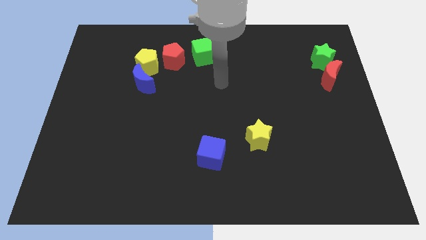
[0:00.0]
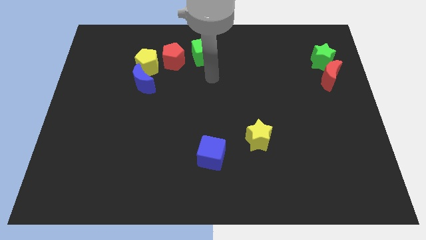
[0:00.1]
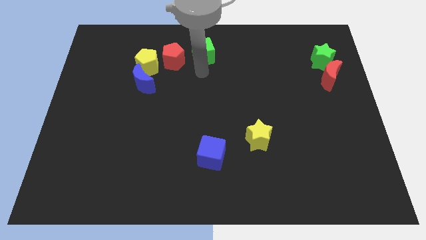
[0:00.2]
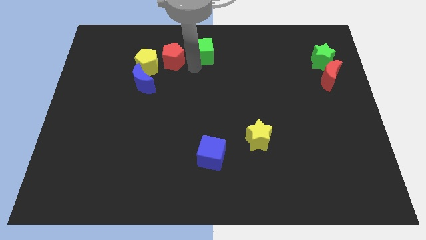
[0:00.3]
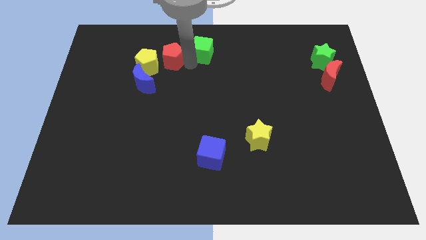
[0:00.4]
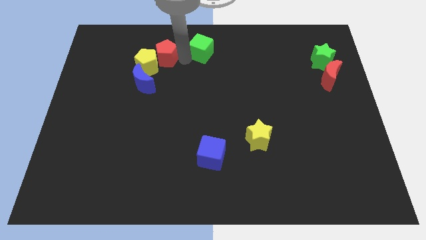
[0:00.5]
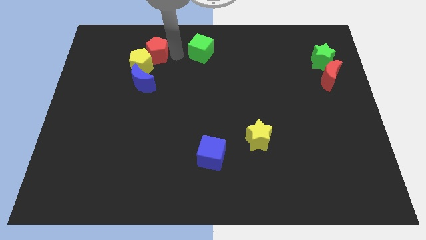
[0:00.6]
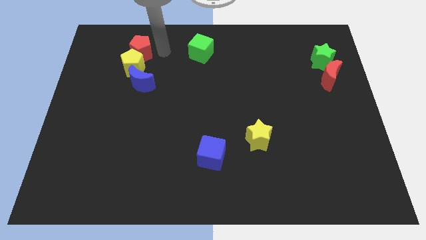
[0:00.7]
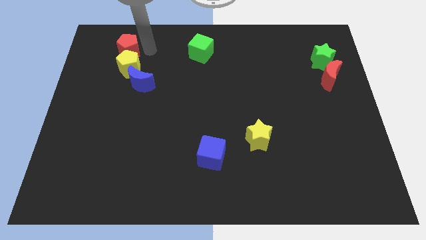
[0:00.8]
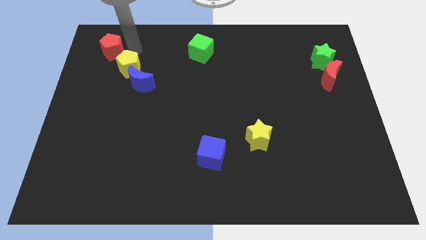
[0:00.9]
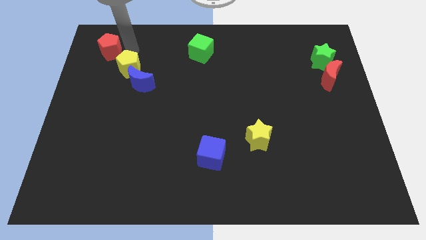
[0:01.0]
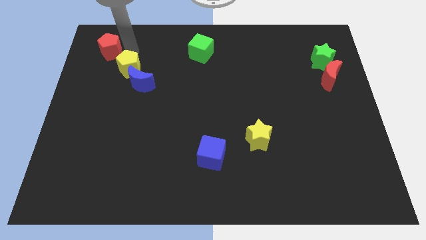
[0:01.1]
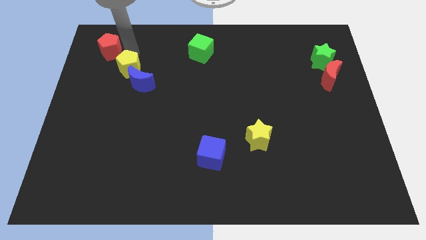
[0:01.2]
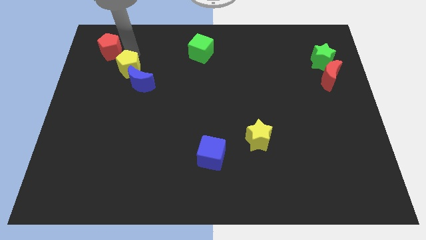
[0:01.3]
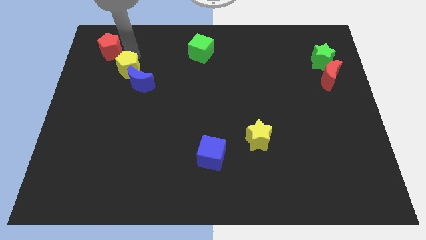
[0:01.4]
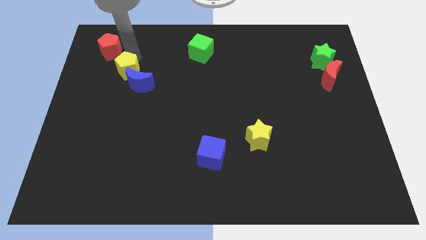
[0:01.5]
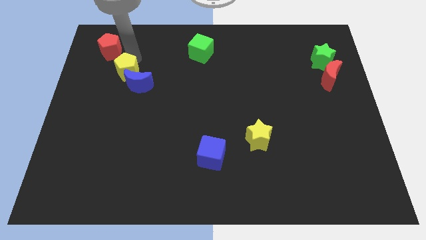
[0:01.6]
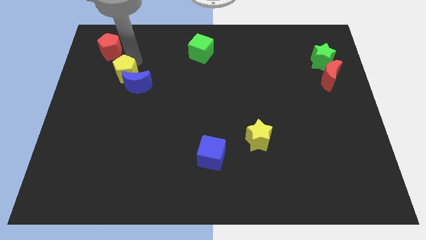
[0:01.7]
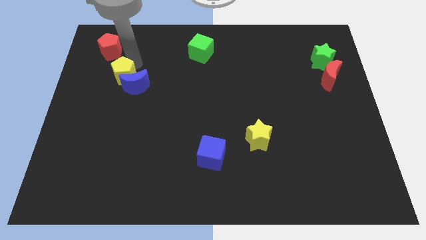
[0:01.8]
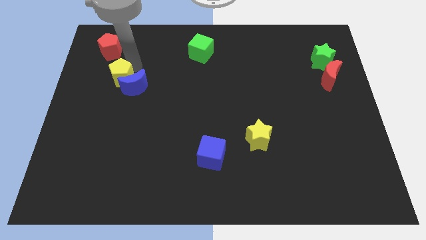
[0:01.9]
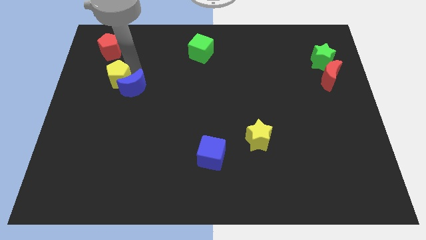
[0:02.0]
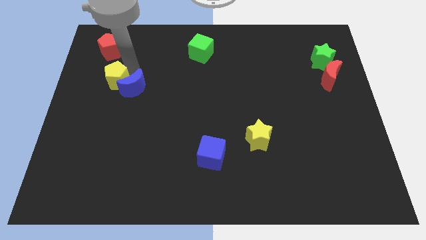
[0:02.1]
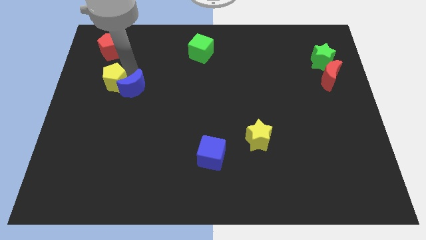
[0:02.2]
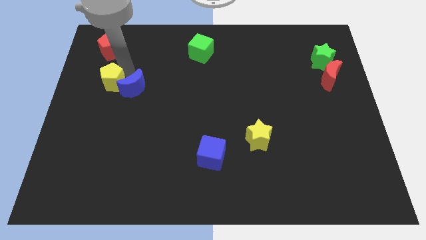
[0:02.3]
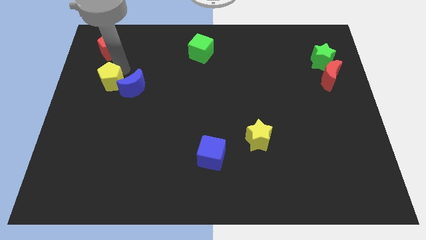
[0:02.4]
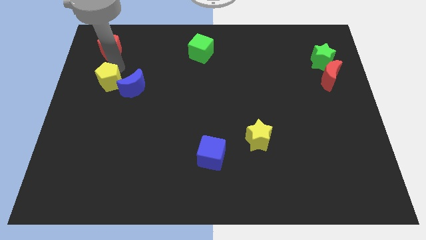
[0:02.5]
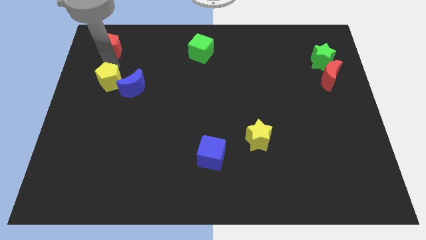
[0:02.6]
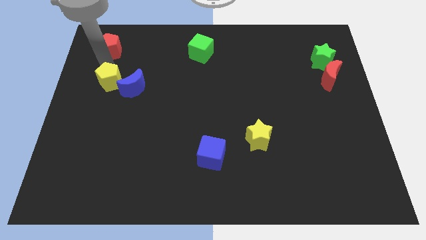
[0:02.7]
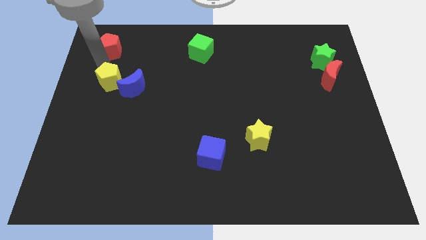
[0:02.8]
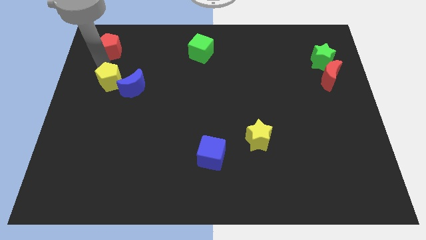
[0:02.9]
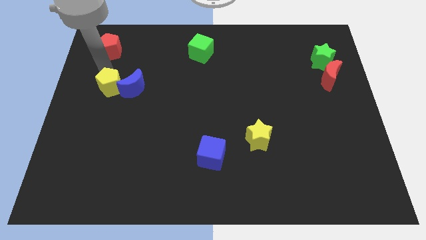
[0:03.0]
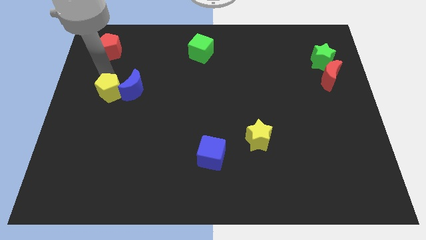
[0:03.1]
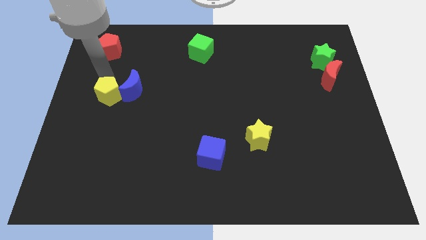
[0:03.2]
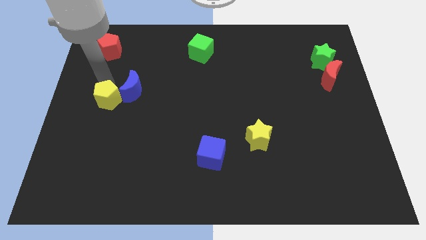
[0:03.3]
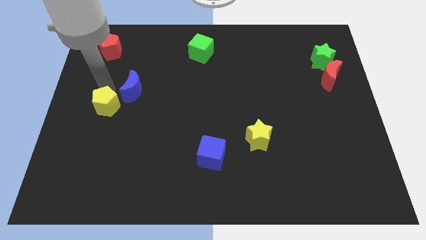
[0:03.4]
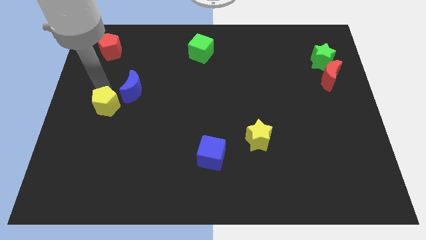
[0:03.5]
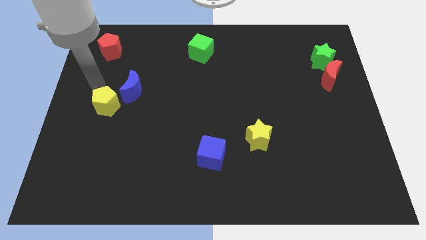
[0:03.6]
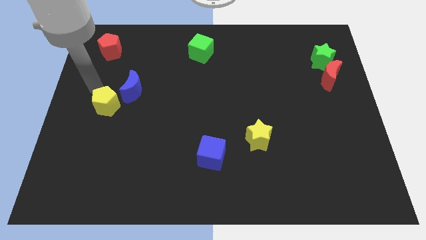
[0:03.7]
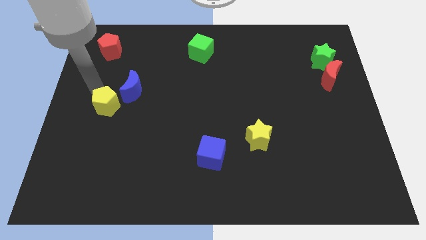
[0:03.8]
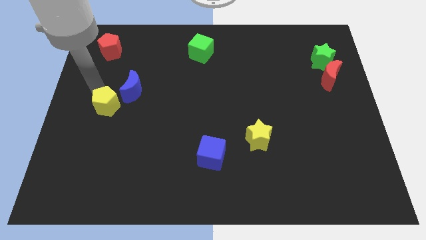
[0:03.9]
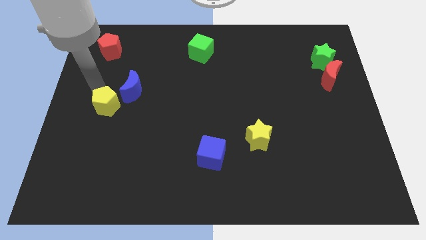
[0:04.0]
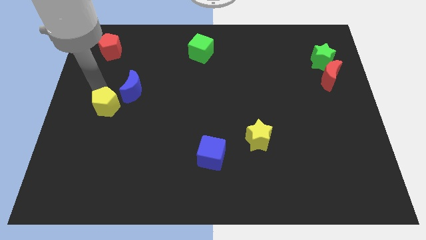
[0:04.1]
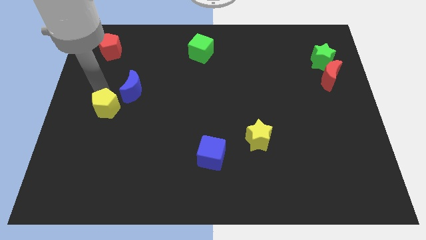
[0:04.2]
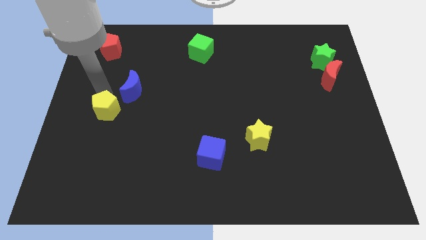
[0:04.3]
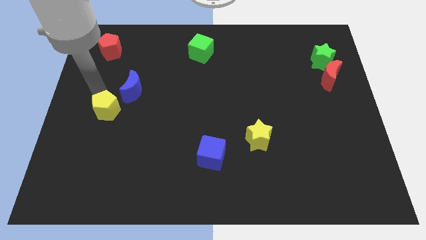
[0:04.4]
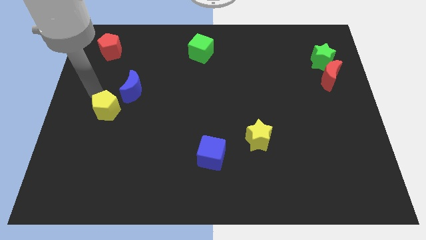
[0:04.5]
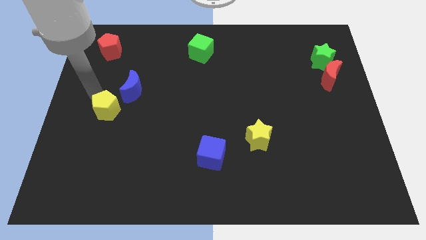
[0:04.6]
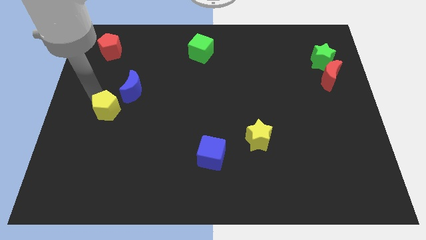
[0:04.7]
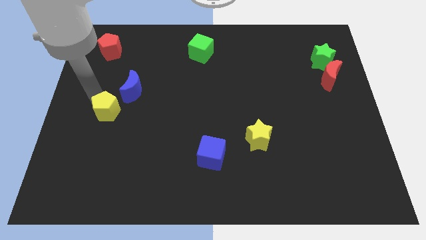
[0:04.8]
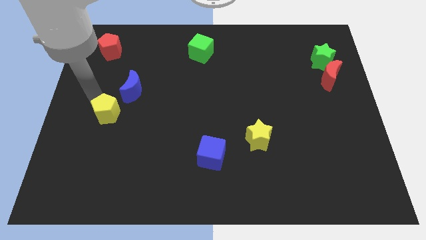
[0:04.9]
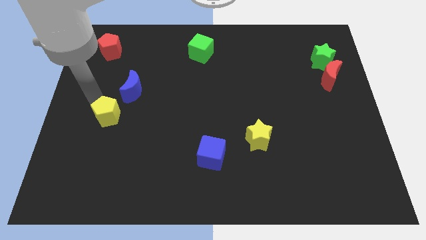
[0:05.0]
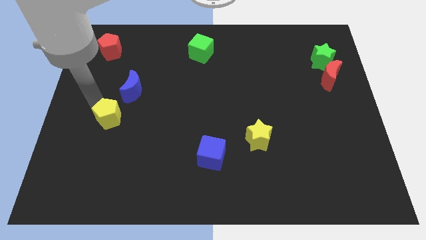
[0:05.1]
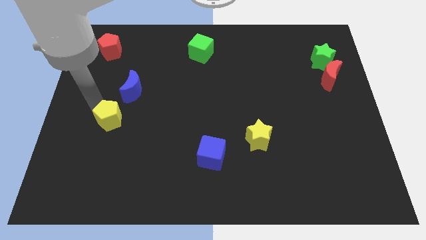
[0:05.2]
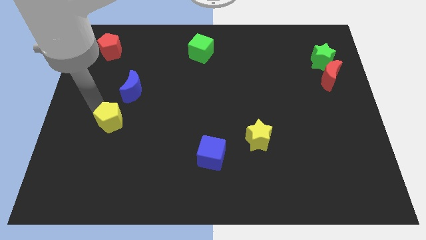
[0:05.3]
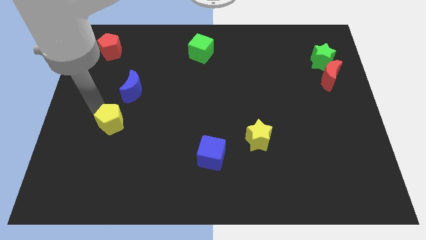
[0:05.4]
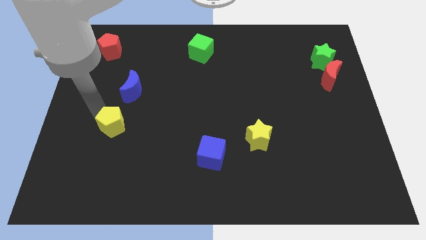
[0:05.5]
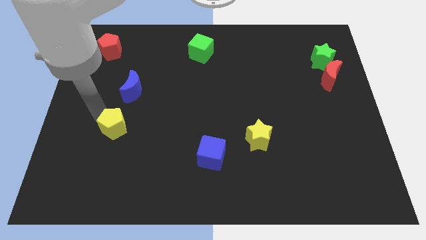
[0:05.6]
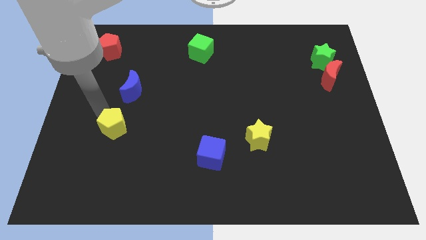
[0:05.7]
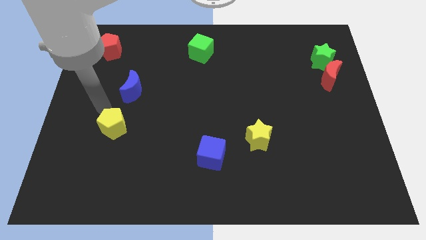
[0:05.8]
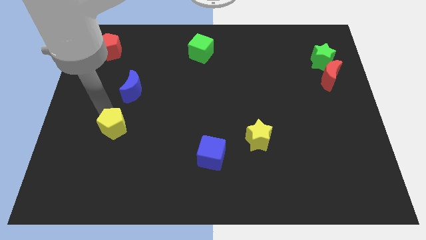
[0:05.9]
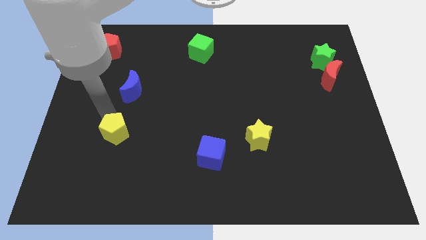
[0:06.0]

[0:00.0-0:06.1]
push the yellow pentagon downwards

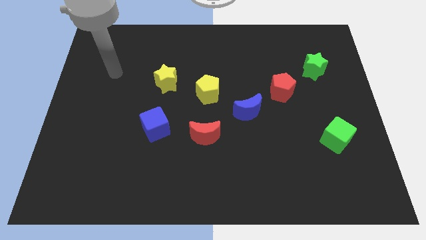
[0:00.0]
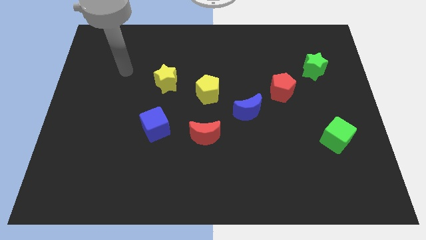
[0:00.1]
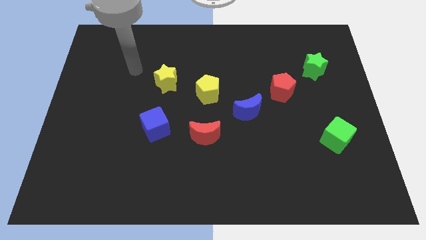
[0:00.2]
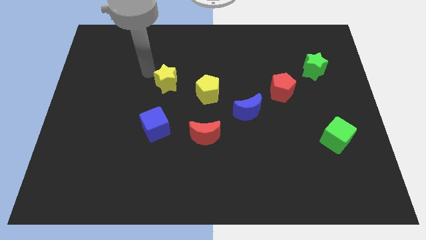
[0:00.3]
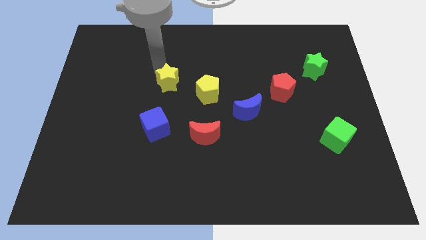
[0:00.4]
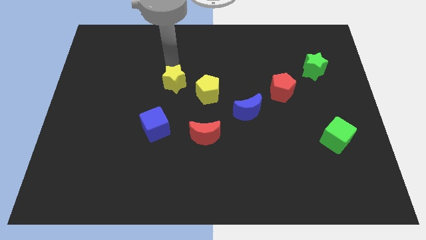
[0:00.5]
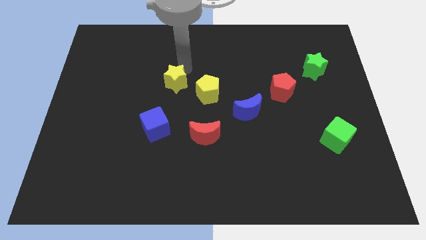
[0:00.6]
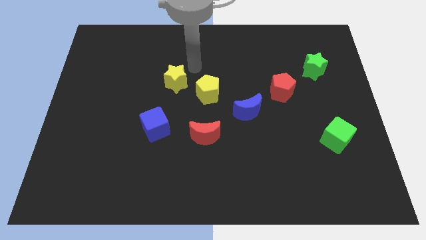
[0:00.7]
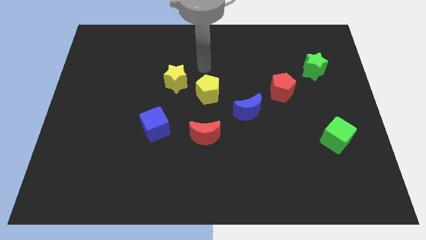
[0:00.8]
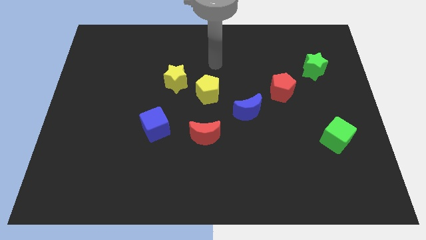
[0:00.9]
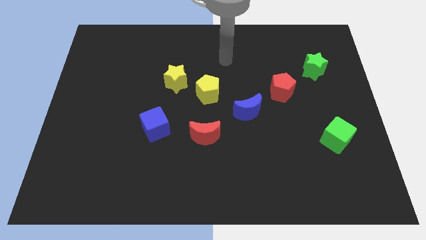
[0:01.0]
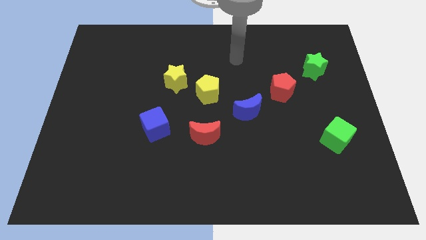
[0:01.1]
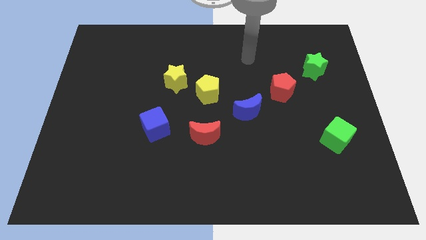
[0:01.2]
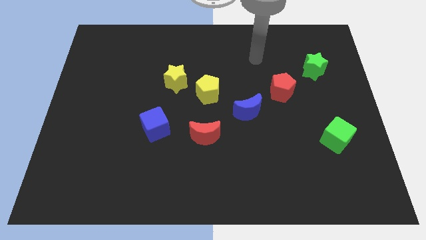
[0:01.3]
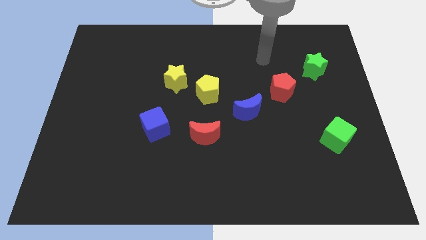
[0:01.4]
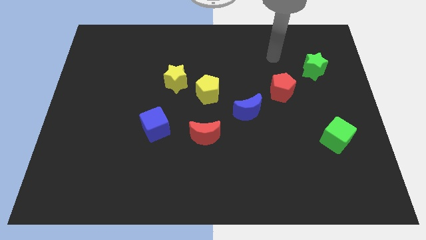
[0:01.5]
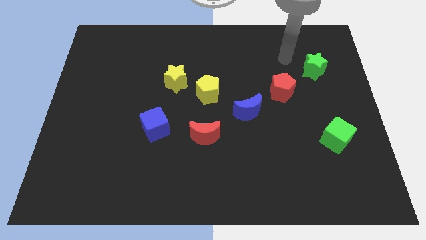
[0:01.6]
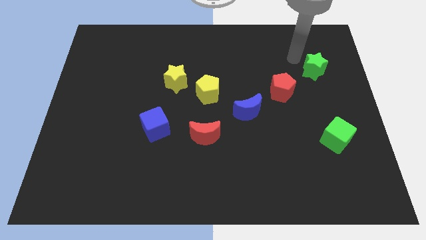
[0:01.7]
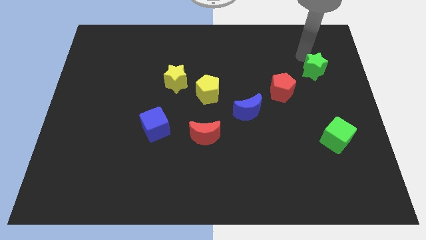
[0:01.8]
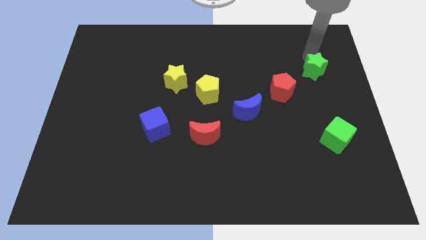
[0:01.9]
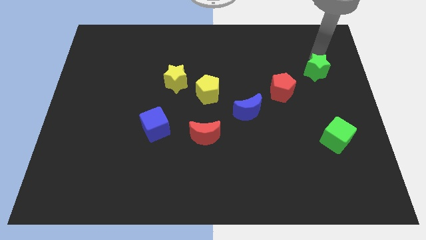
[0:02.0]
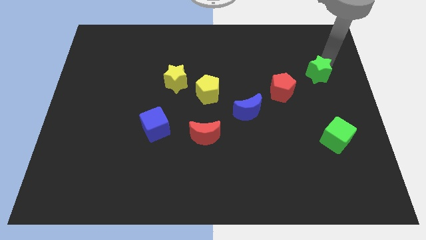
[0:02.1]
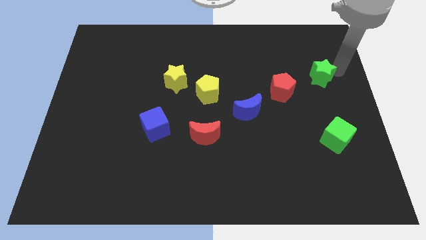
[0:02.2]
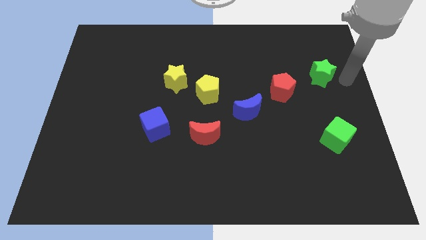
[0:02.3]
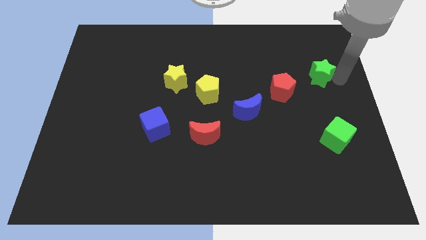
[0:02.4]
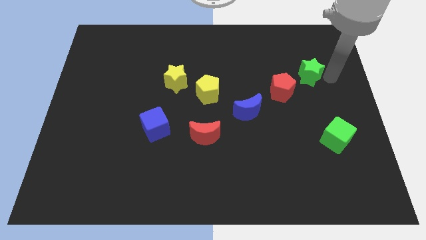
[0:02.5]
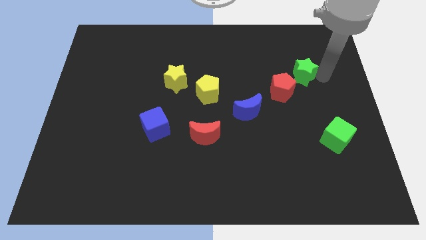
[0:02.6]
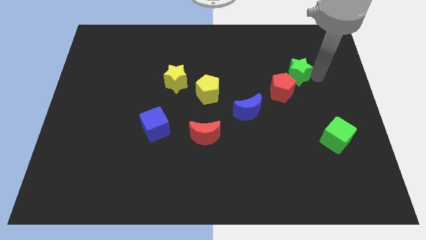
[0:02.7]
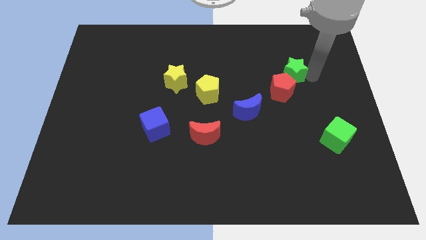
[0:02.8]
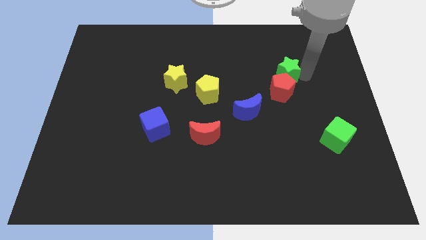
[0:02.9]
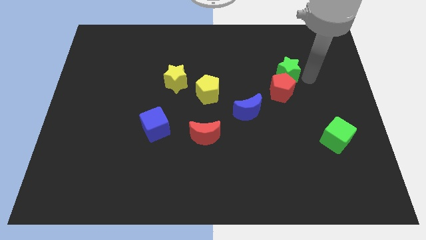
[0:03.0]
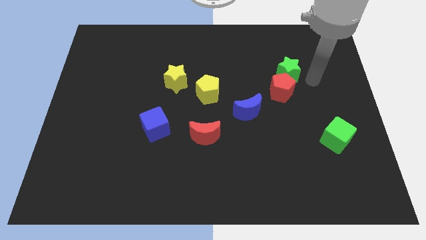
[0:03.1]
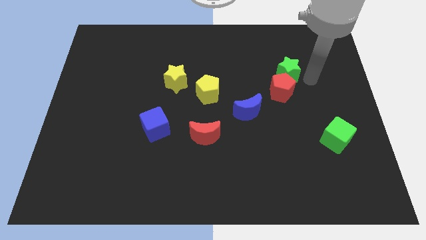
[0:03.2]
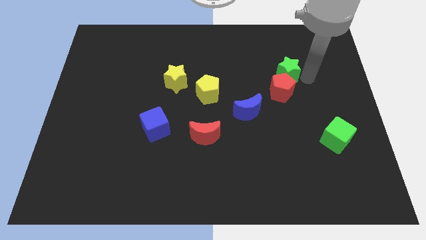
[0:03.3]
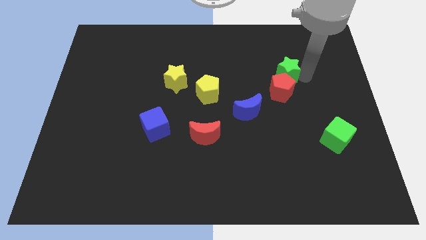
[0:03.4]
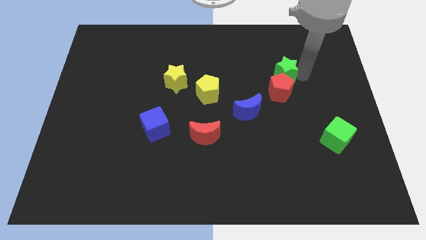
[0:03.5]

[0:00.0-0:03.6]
move the green star a little bit left
